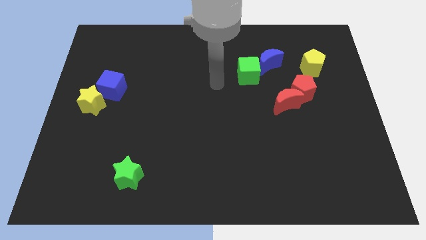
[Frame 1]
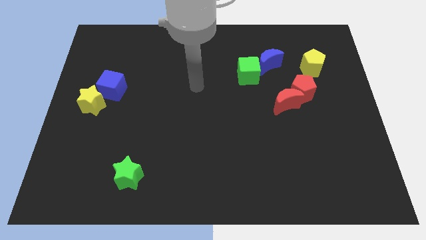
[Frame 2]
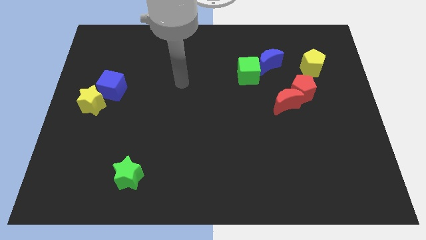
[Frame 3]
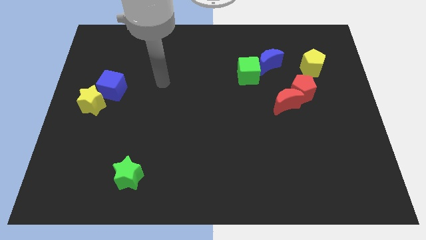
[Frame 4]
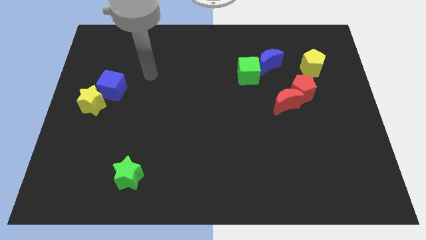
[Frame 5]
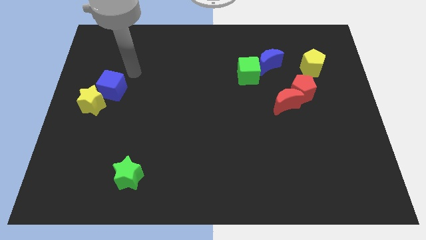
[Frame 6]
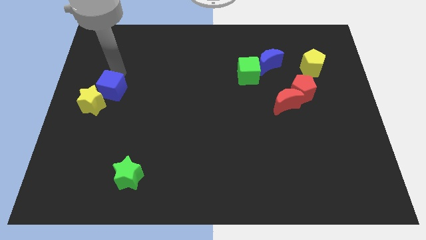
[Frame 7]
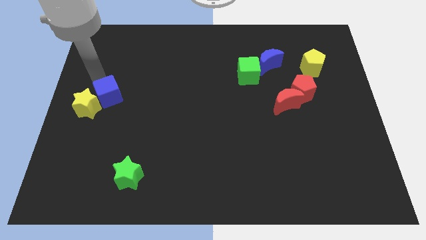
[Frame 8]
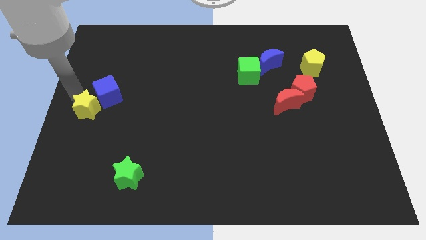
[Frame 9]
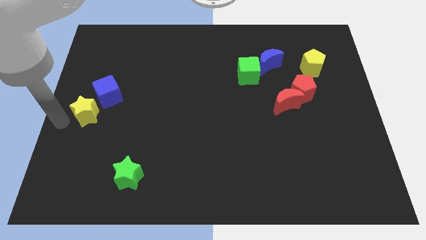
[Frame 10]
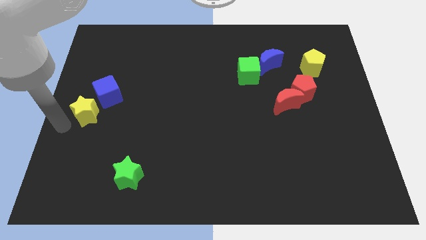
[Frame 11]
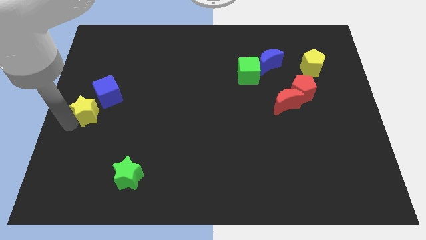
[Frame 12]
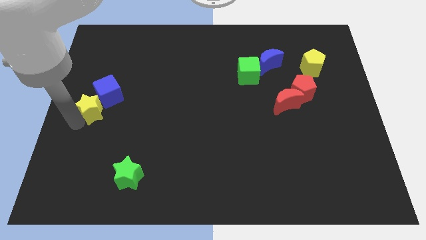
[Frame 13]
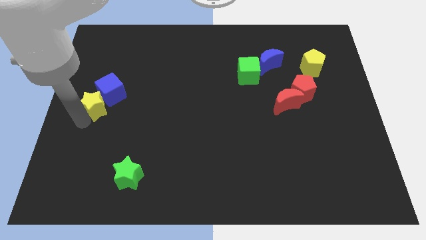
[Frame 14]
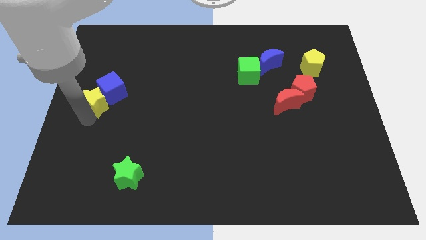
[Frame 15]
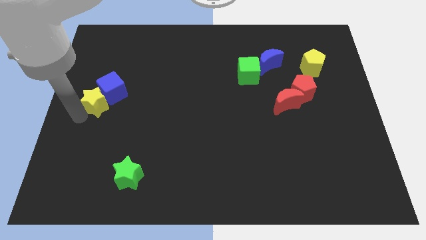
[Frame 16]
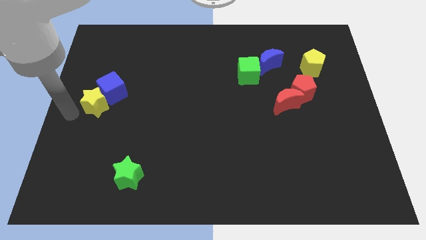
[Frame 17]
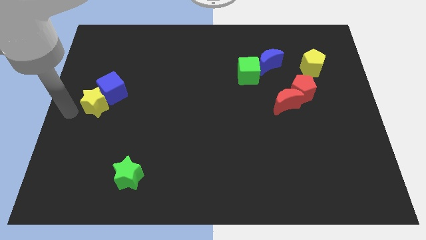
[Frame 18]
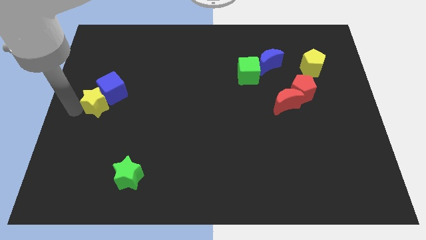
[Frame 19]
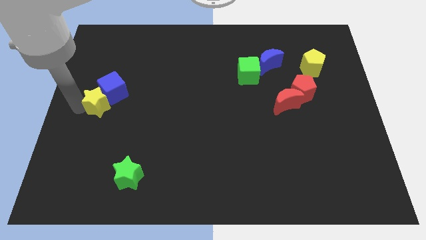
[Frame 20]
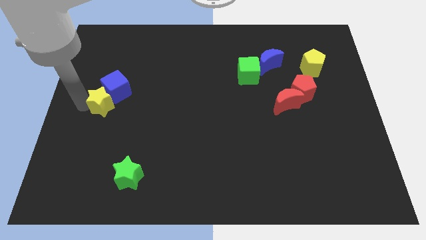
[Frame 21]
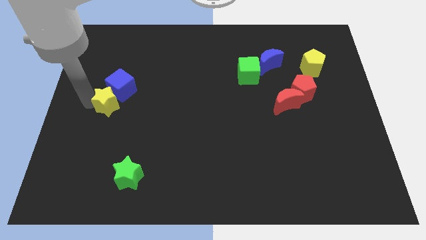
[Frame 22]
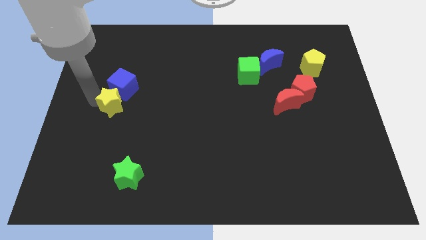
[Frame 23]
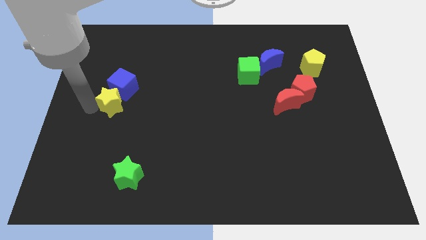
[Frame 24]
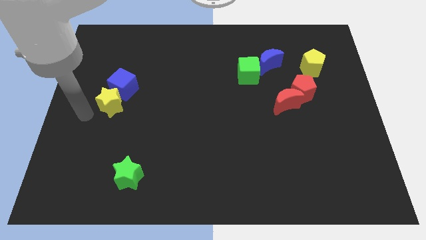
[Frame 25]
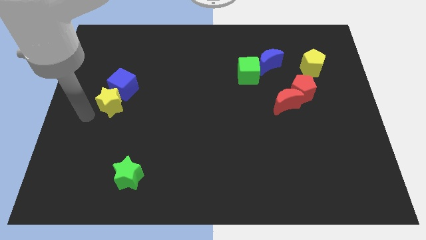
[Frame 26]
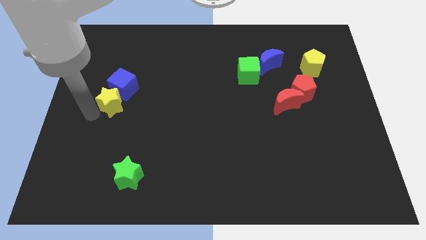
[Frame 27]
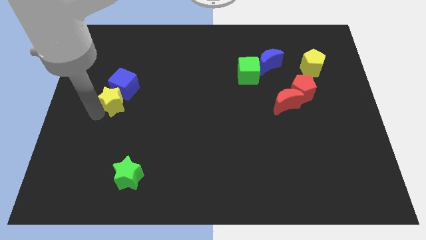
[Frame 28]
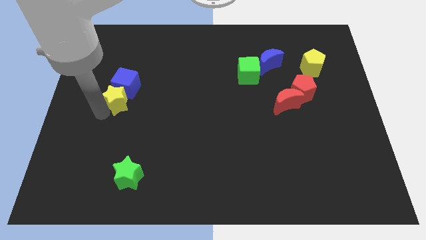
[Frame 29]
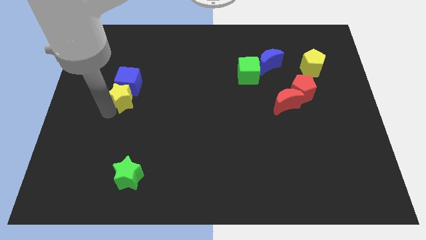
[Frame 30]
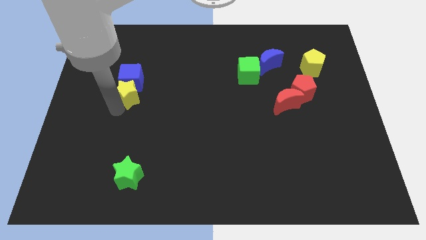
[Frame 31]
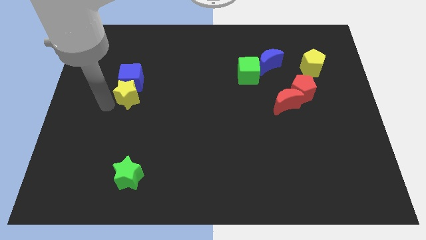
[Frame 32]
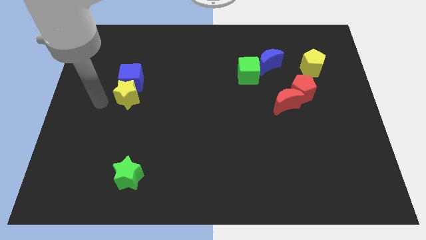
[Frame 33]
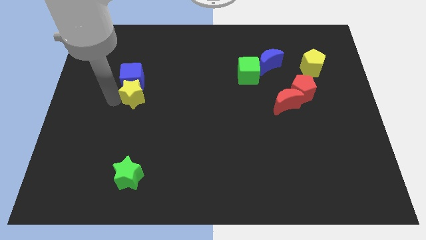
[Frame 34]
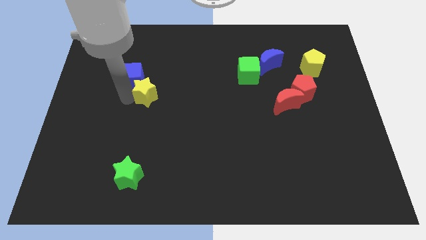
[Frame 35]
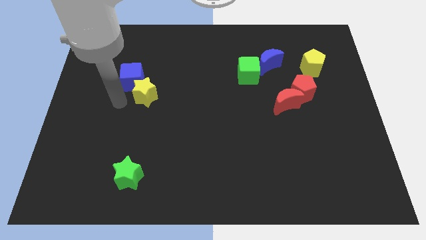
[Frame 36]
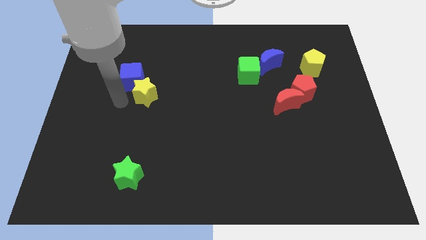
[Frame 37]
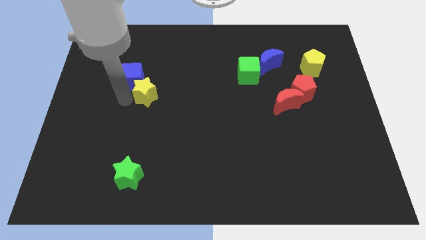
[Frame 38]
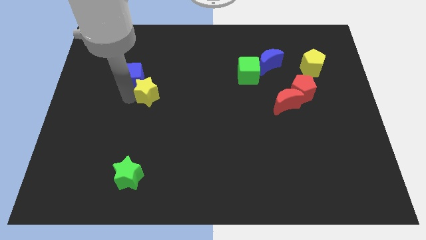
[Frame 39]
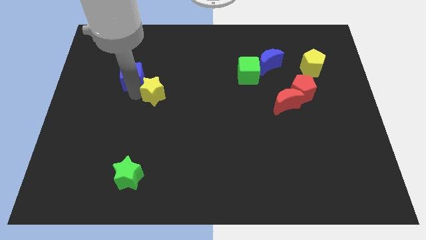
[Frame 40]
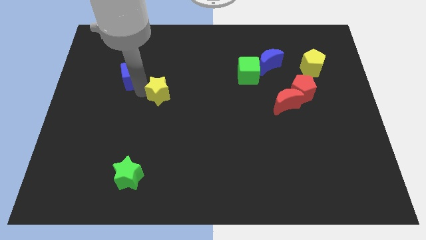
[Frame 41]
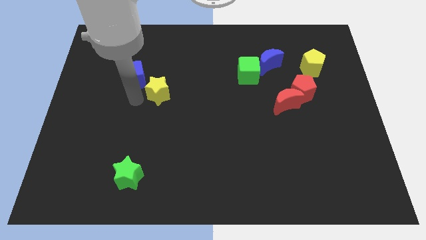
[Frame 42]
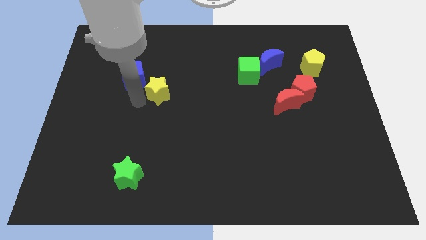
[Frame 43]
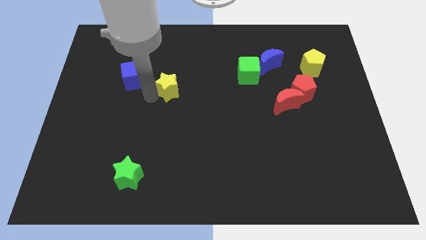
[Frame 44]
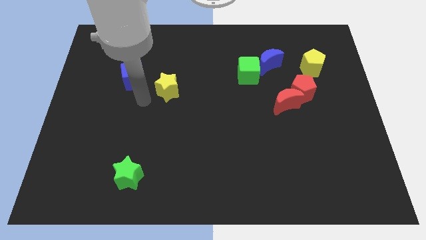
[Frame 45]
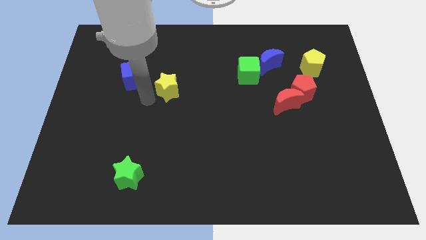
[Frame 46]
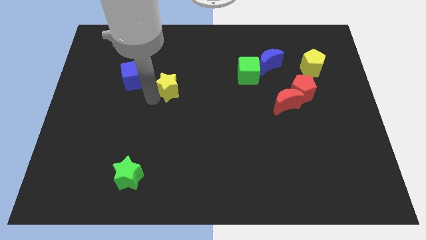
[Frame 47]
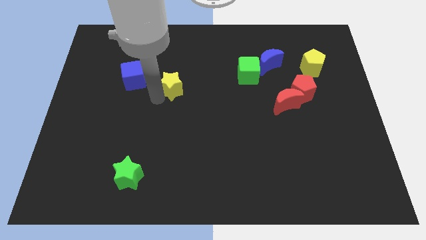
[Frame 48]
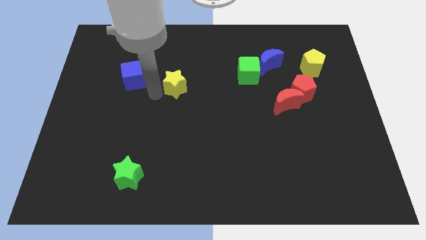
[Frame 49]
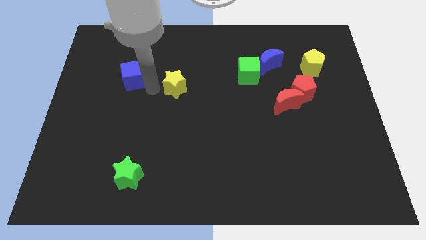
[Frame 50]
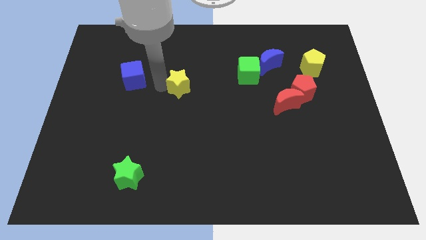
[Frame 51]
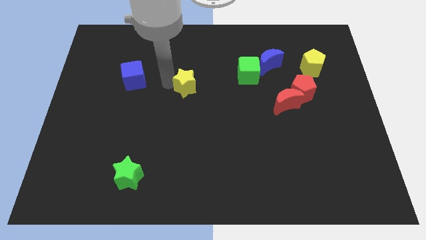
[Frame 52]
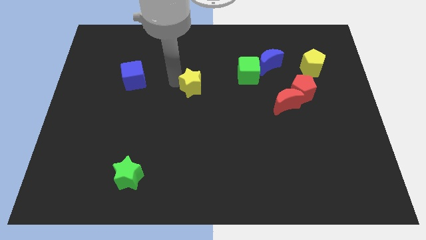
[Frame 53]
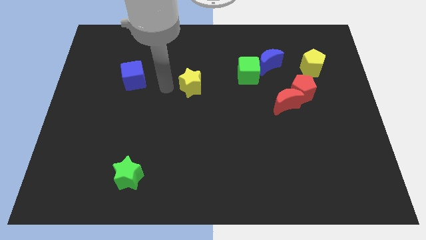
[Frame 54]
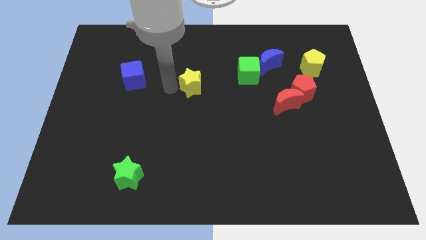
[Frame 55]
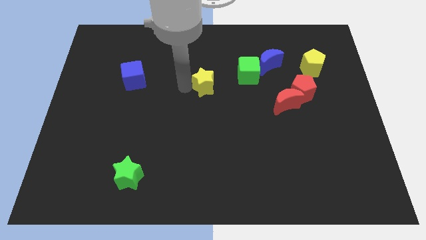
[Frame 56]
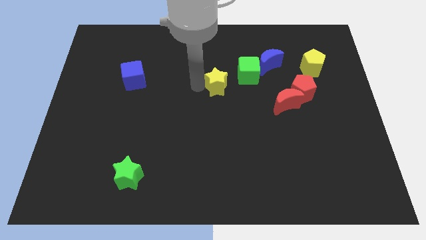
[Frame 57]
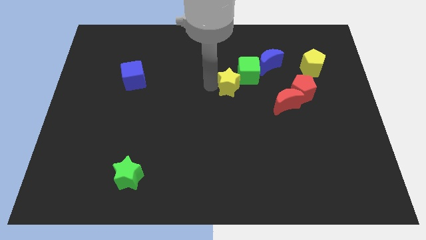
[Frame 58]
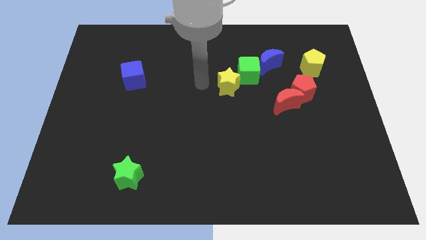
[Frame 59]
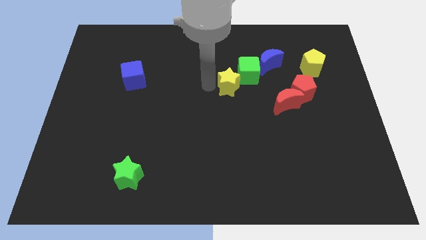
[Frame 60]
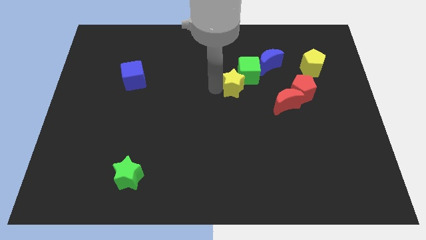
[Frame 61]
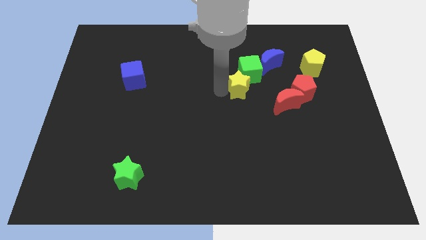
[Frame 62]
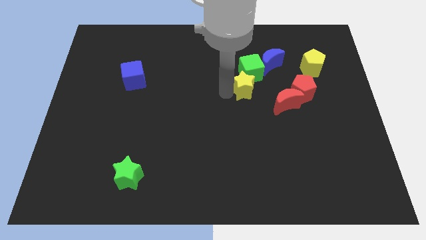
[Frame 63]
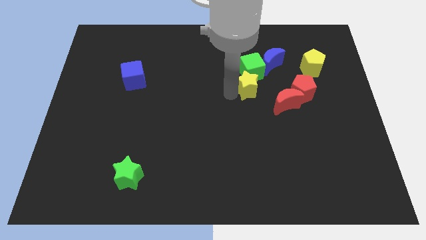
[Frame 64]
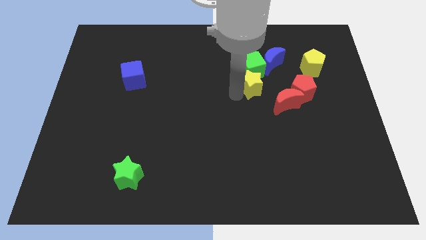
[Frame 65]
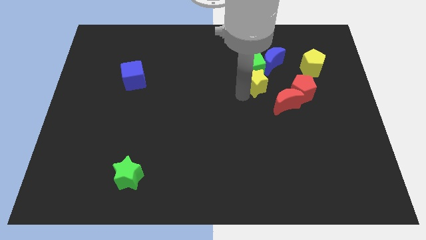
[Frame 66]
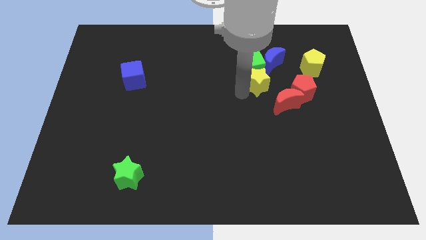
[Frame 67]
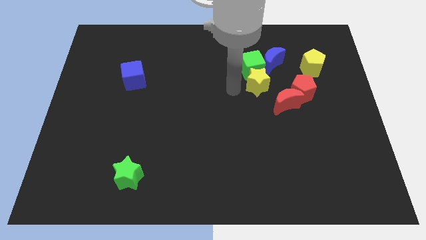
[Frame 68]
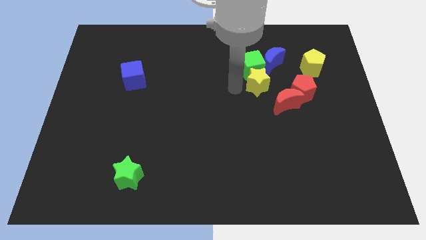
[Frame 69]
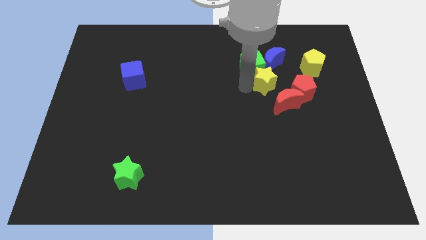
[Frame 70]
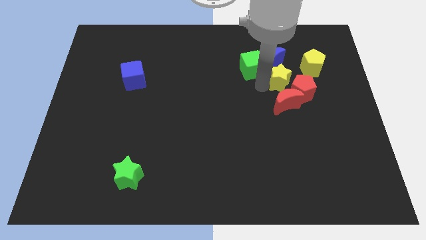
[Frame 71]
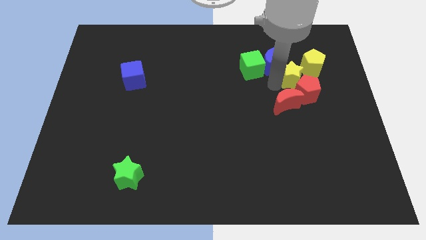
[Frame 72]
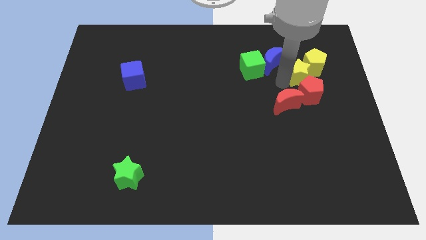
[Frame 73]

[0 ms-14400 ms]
move the yellow star towards the yellow pentagon
